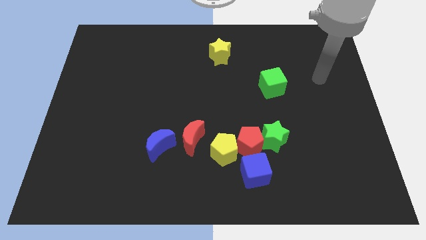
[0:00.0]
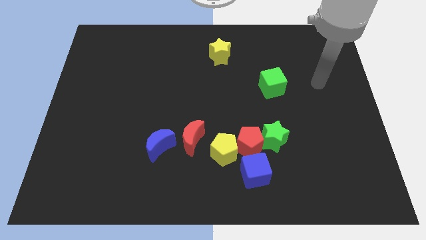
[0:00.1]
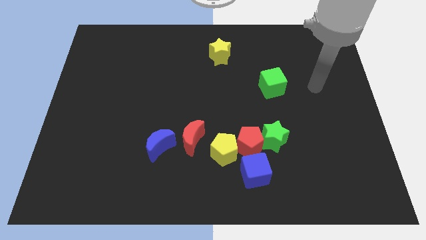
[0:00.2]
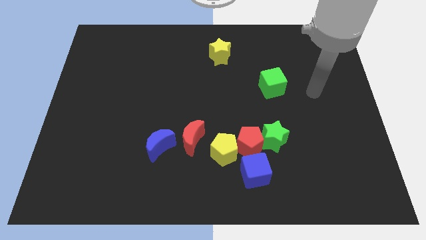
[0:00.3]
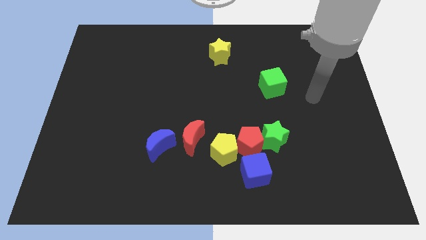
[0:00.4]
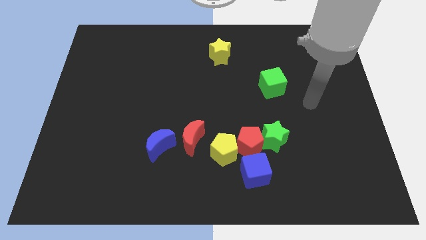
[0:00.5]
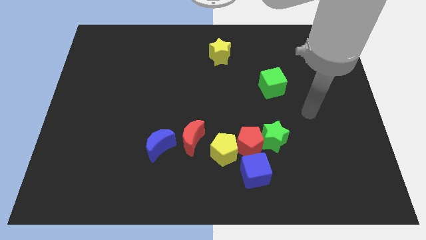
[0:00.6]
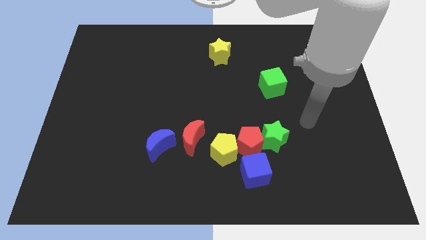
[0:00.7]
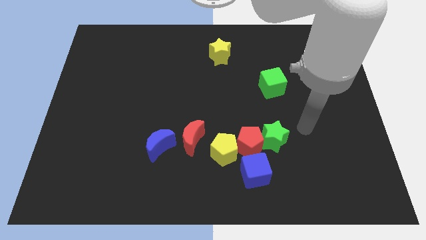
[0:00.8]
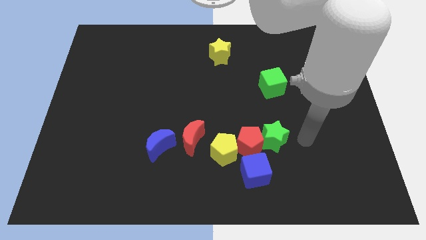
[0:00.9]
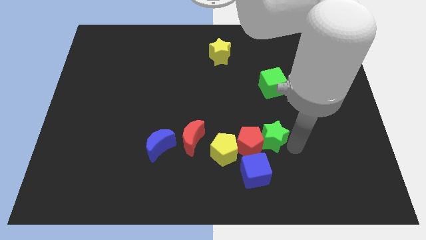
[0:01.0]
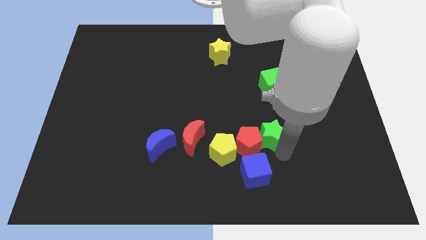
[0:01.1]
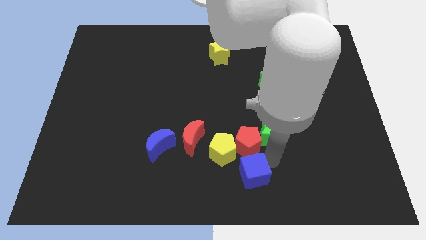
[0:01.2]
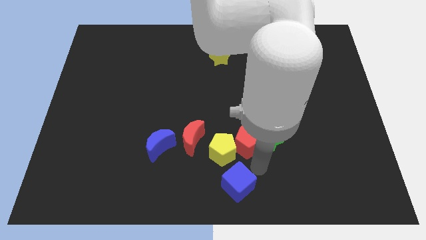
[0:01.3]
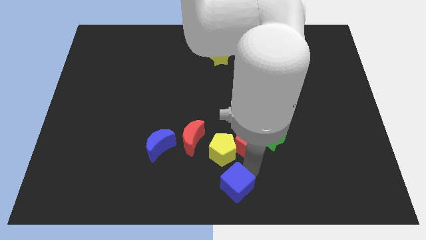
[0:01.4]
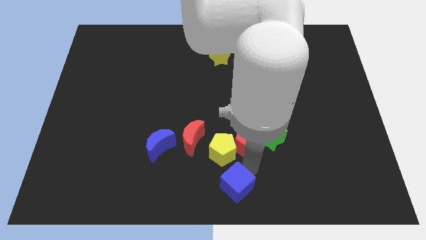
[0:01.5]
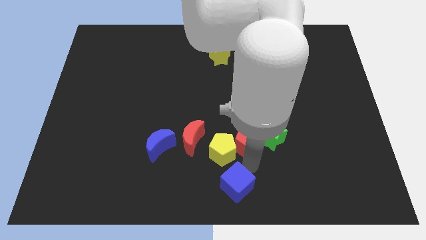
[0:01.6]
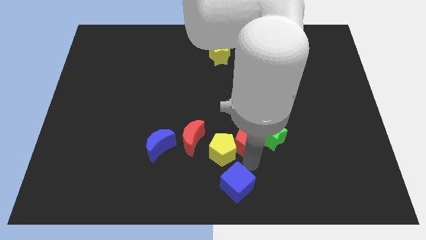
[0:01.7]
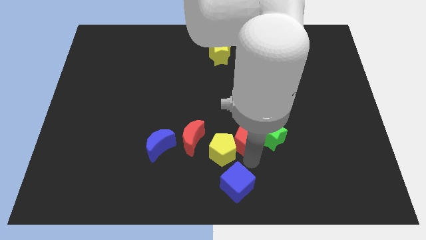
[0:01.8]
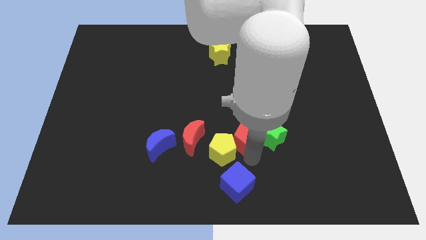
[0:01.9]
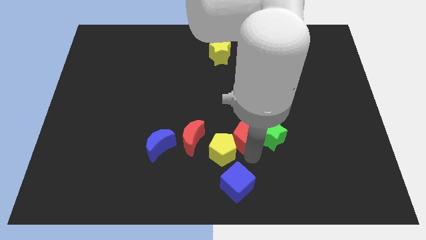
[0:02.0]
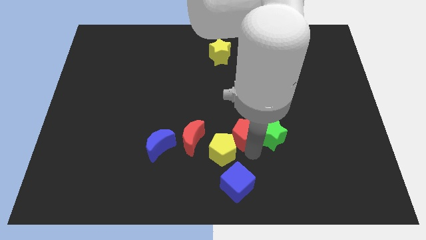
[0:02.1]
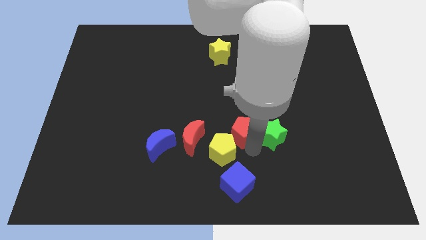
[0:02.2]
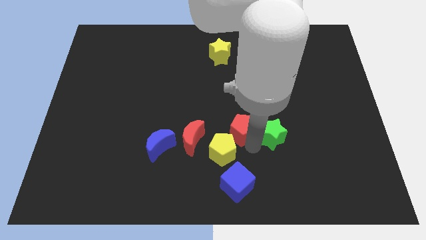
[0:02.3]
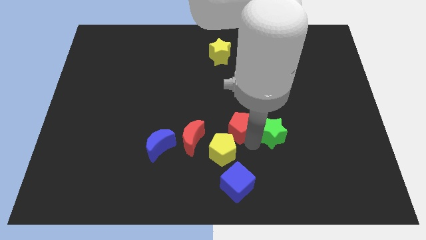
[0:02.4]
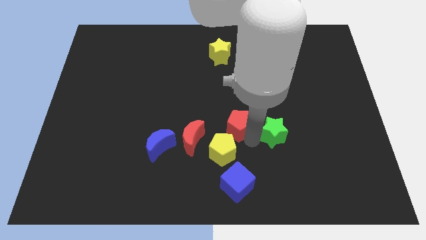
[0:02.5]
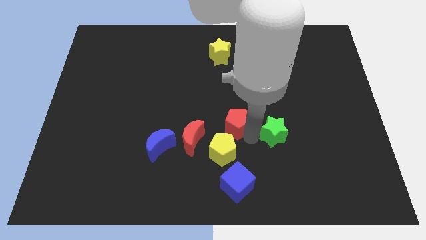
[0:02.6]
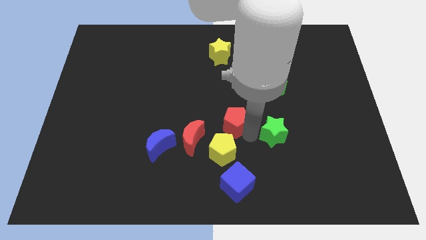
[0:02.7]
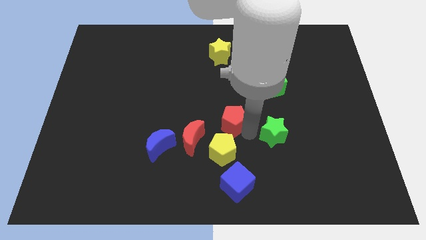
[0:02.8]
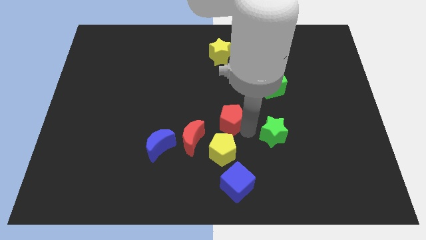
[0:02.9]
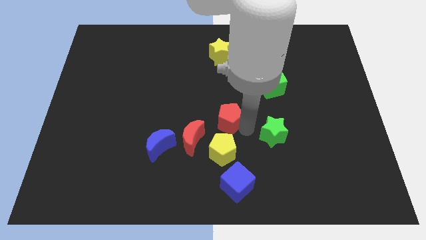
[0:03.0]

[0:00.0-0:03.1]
pull the red pentagon apart from the yellow pentagon, green star, and blue cube

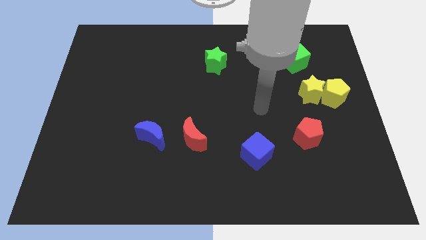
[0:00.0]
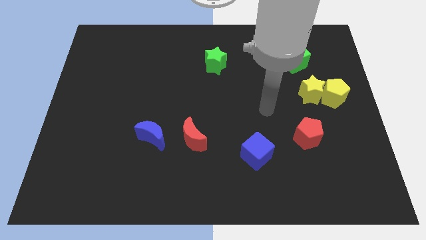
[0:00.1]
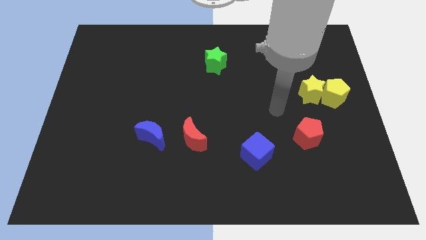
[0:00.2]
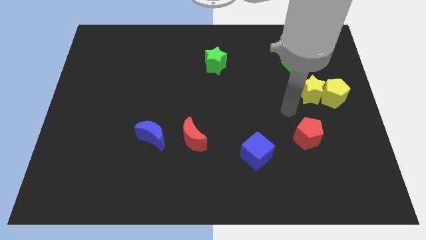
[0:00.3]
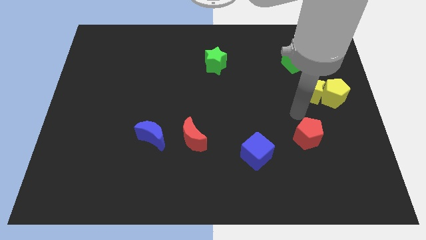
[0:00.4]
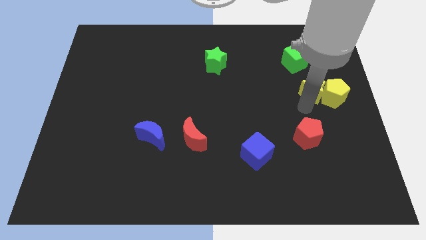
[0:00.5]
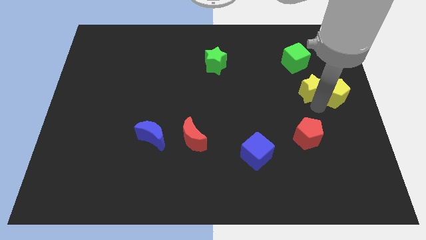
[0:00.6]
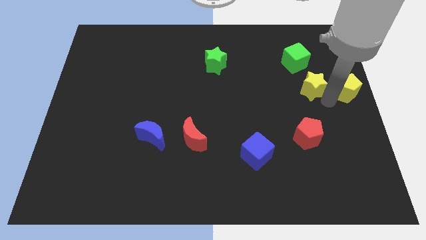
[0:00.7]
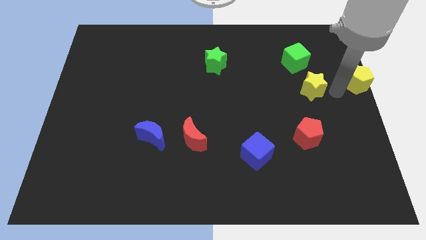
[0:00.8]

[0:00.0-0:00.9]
separate the yellow star from the yellow pentagon

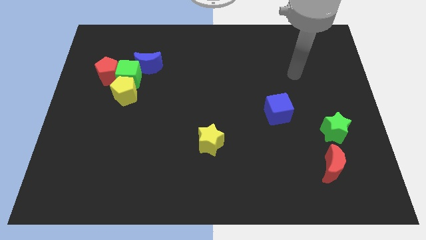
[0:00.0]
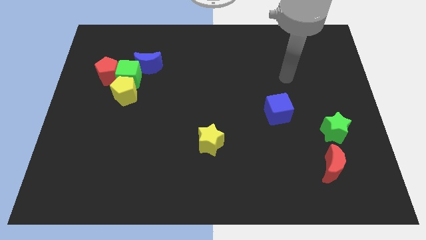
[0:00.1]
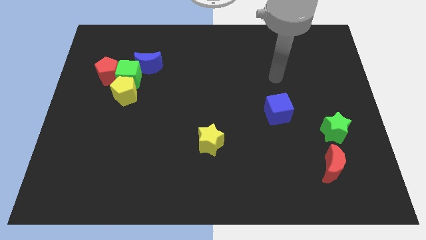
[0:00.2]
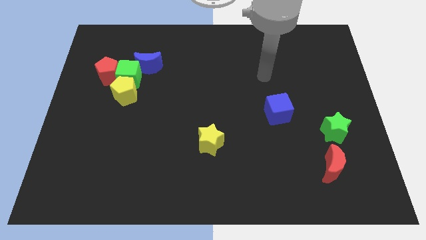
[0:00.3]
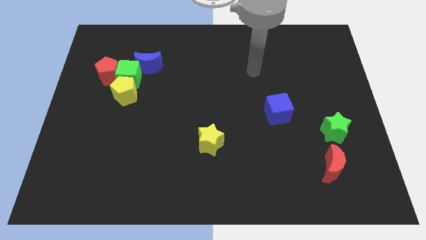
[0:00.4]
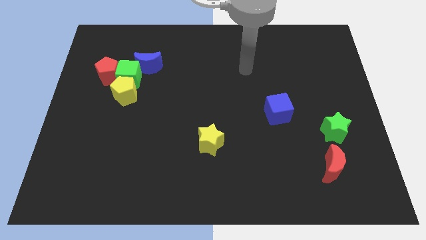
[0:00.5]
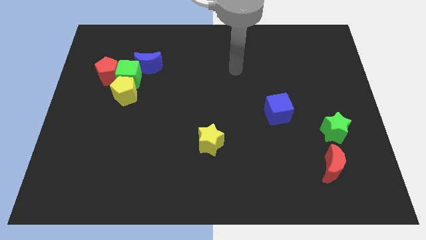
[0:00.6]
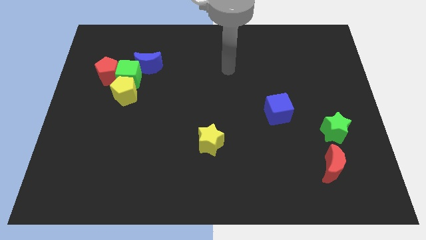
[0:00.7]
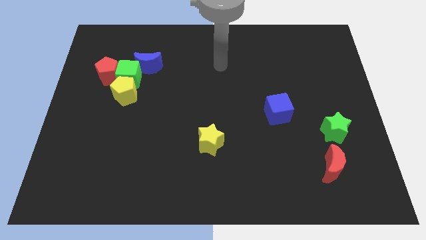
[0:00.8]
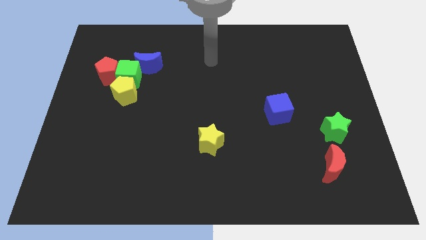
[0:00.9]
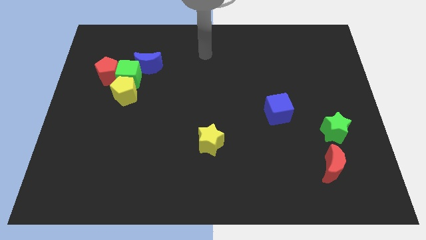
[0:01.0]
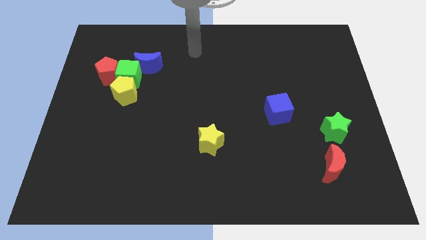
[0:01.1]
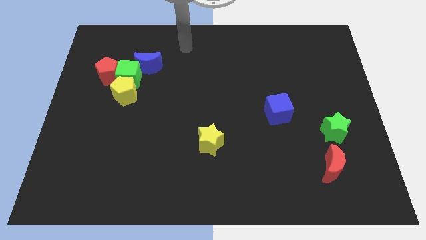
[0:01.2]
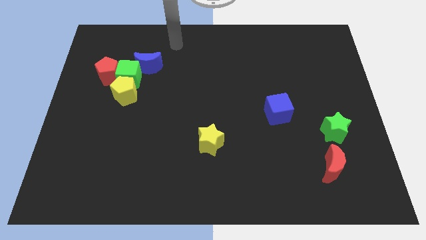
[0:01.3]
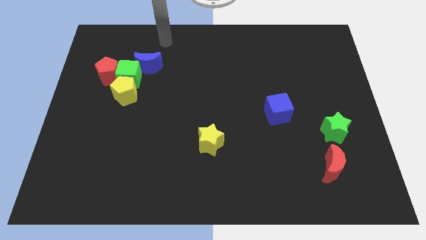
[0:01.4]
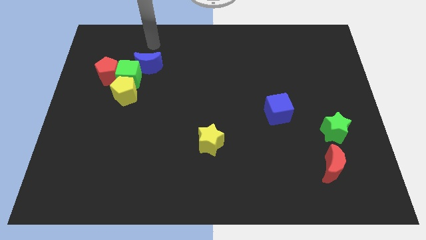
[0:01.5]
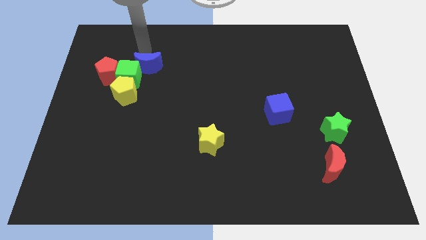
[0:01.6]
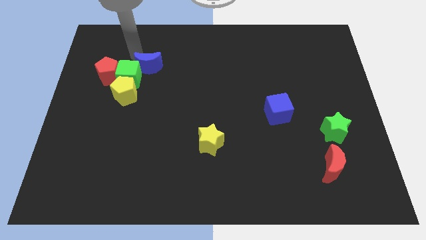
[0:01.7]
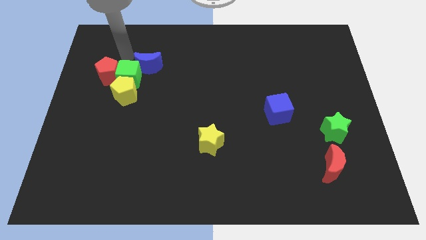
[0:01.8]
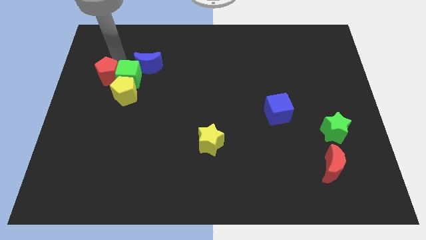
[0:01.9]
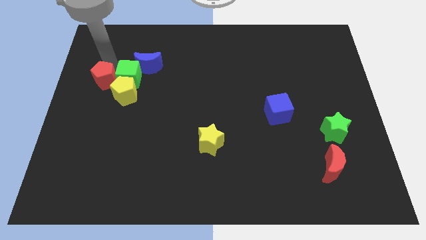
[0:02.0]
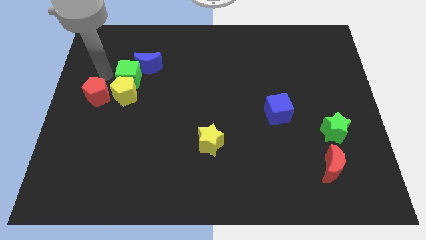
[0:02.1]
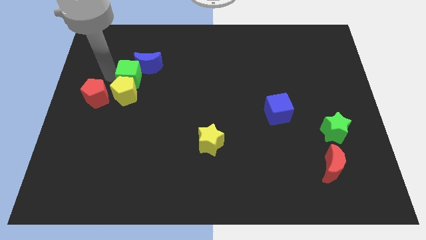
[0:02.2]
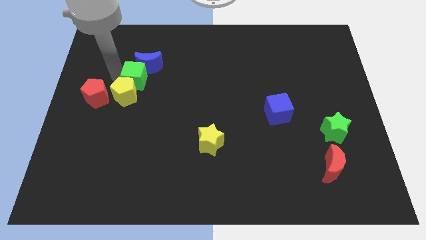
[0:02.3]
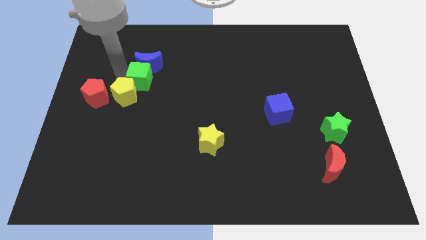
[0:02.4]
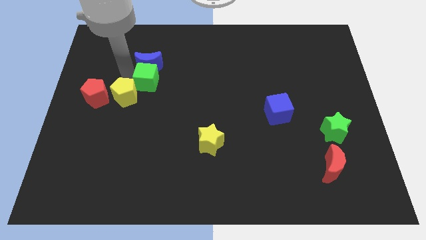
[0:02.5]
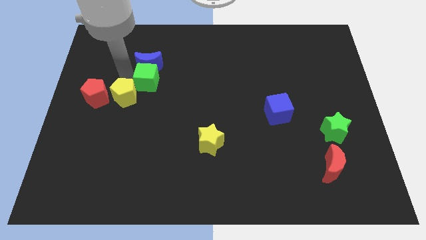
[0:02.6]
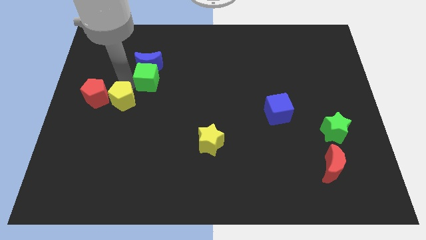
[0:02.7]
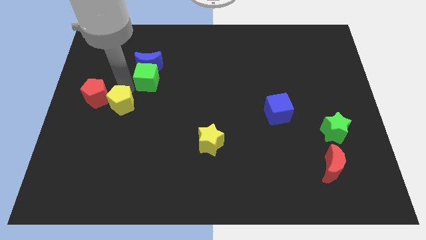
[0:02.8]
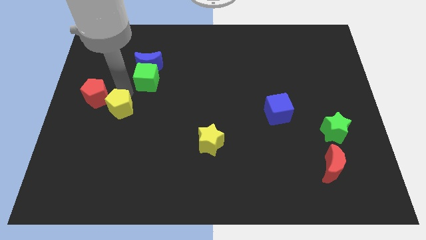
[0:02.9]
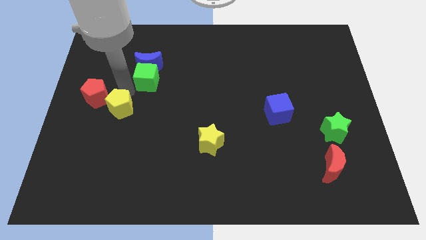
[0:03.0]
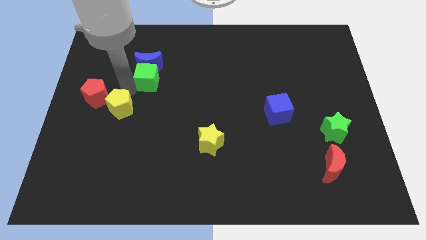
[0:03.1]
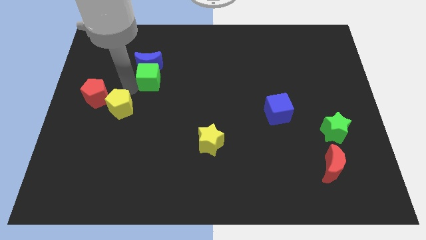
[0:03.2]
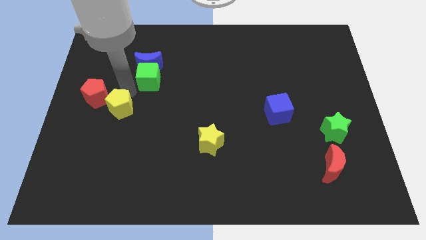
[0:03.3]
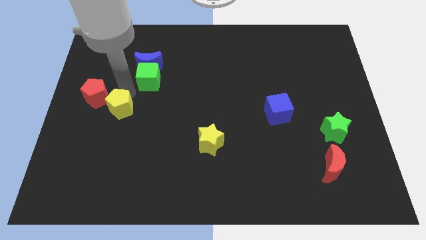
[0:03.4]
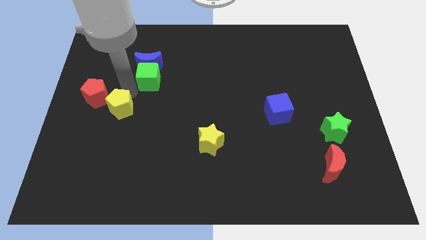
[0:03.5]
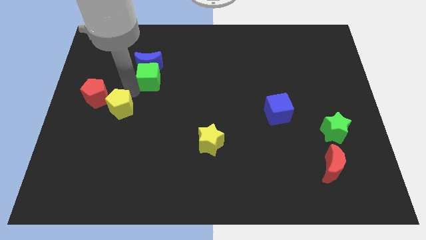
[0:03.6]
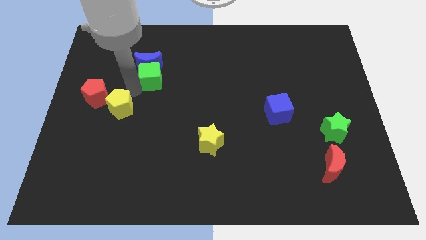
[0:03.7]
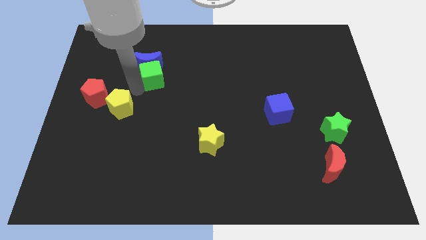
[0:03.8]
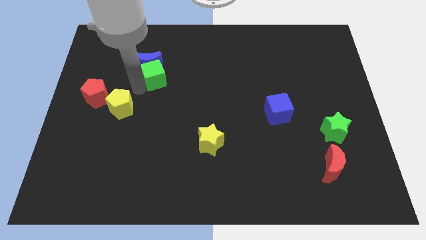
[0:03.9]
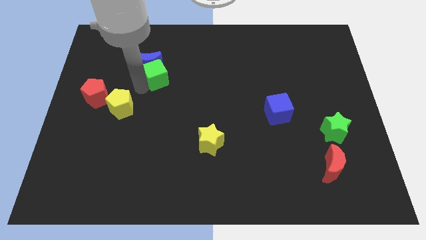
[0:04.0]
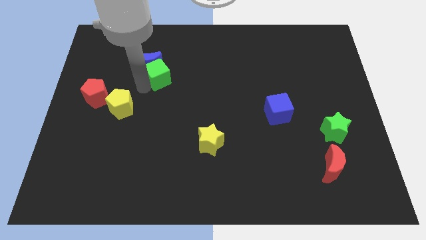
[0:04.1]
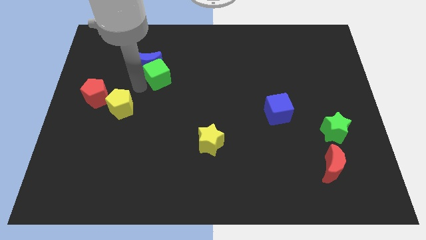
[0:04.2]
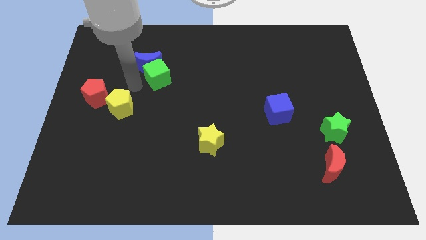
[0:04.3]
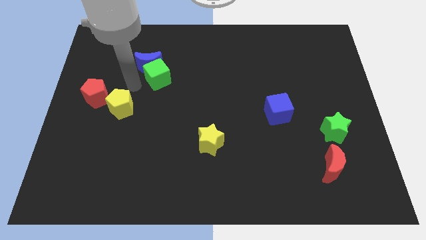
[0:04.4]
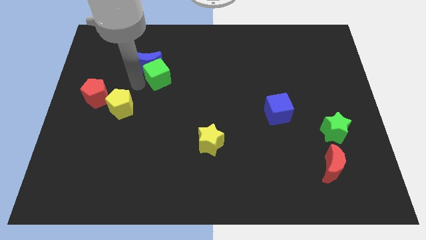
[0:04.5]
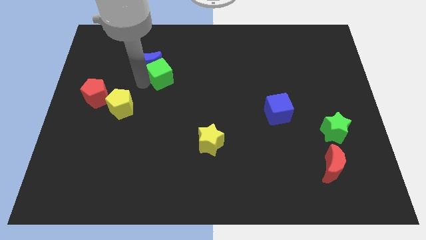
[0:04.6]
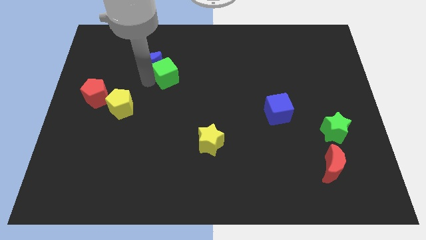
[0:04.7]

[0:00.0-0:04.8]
separate the green cube from the red pentagon, yellow pentagon, and blue moon

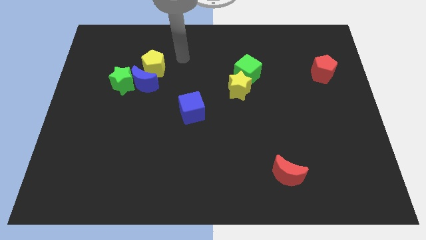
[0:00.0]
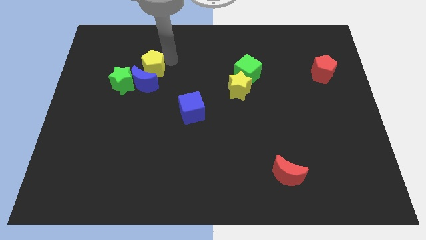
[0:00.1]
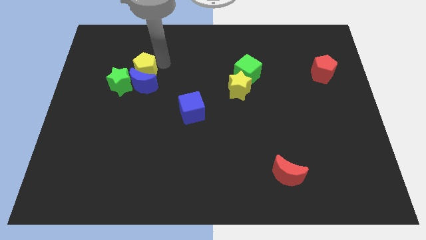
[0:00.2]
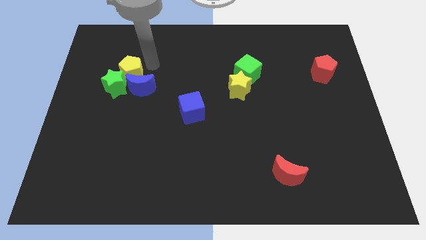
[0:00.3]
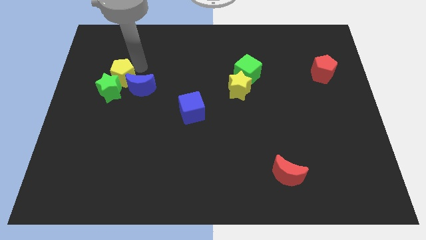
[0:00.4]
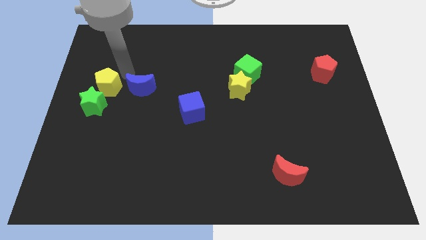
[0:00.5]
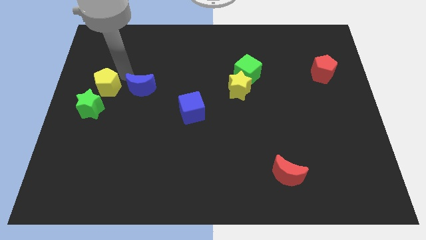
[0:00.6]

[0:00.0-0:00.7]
pull the blue moon apart from the green star and yellow pentagon
